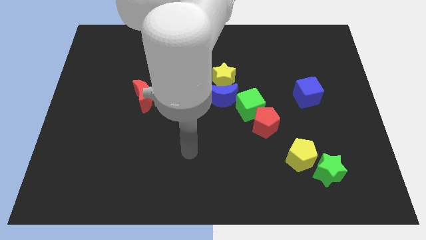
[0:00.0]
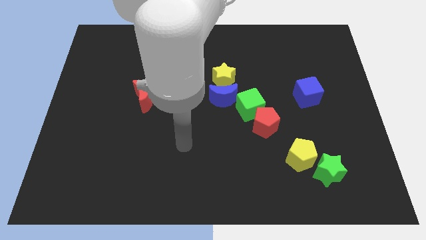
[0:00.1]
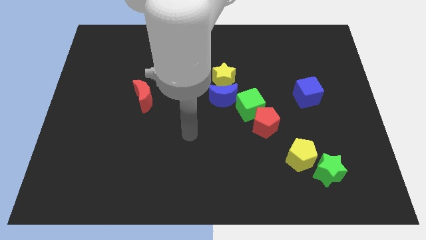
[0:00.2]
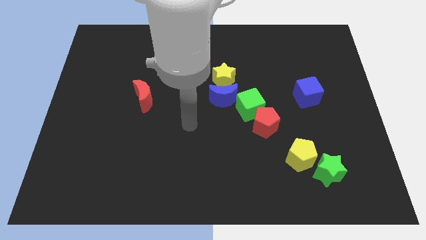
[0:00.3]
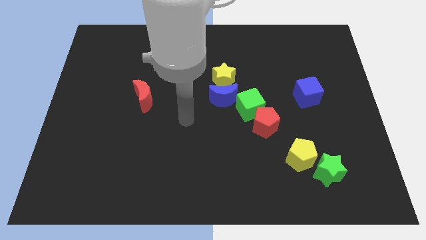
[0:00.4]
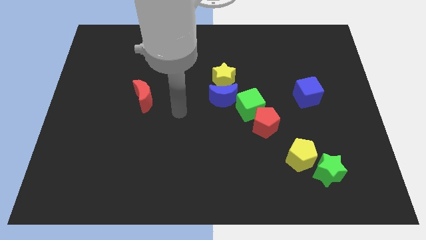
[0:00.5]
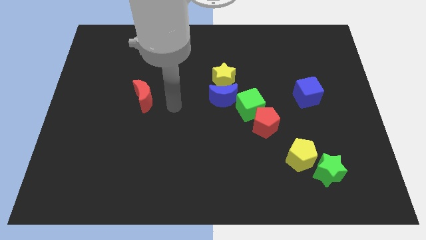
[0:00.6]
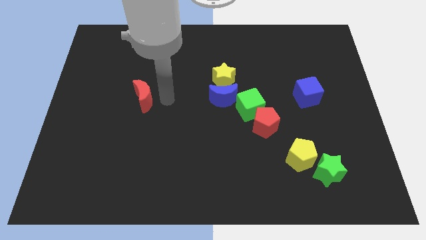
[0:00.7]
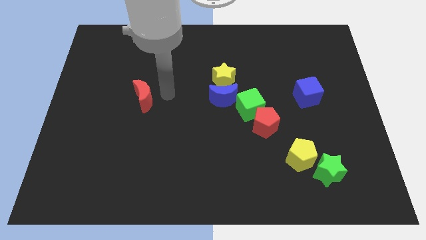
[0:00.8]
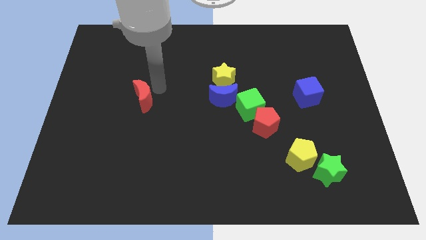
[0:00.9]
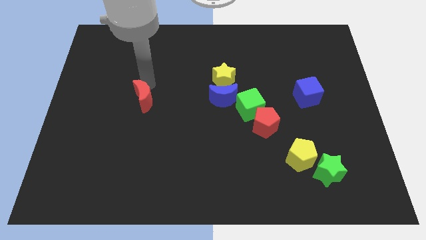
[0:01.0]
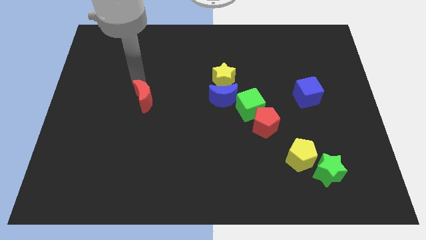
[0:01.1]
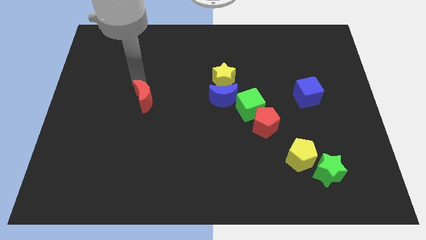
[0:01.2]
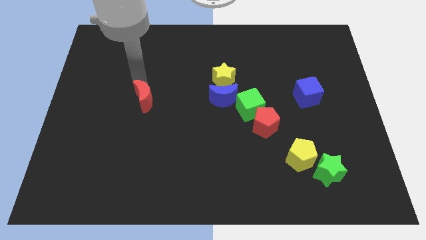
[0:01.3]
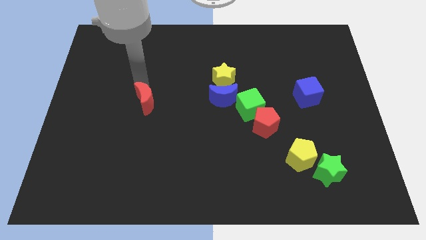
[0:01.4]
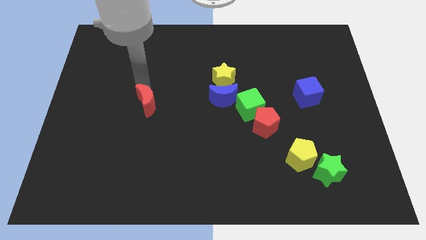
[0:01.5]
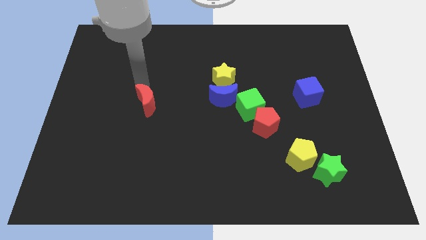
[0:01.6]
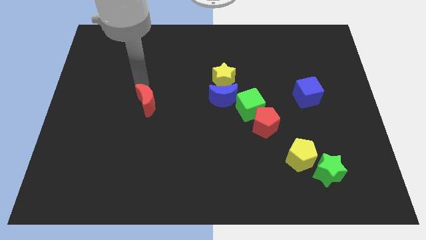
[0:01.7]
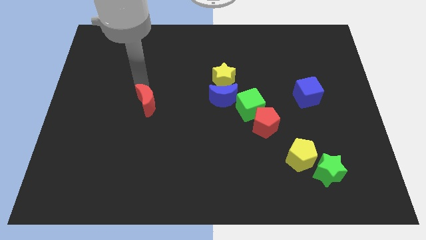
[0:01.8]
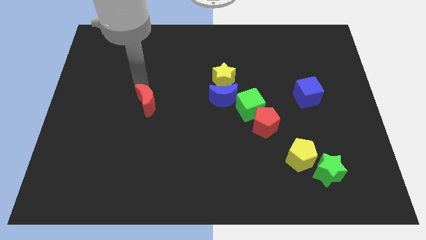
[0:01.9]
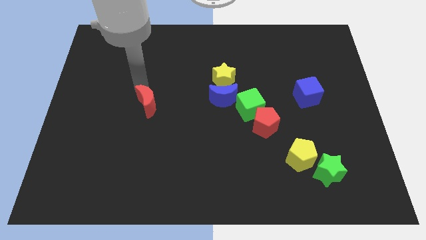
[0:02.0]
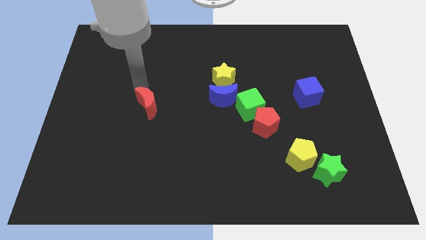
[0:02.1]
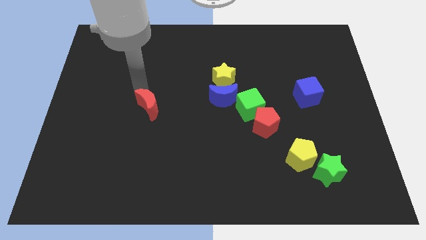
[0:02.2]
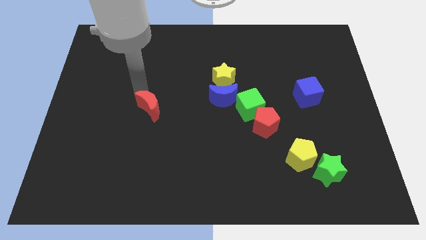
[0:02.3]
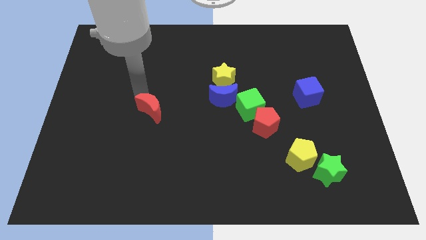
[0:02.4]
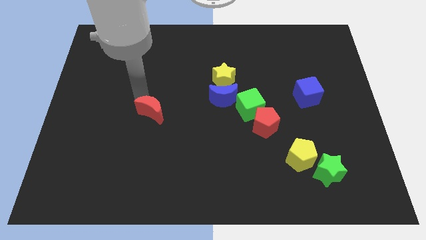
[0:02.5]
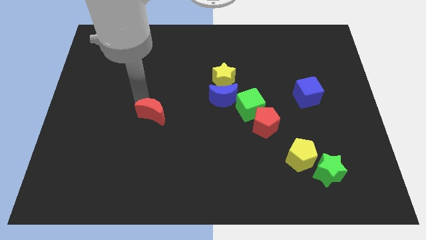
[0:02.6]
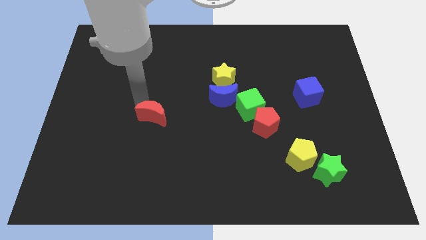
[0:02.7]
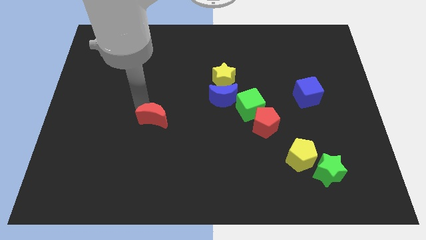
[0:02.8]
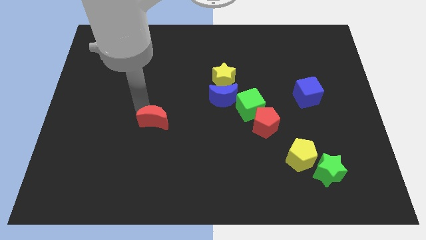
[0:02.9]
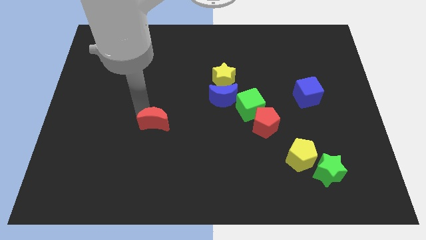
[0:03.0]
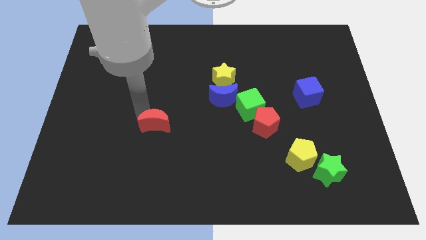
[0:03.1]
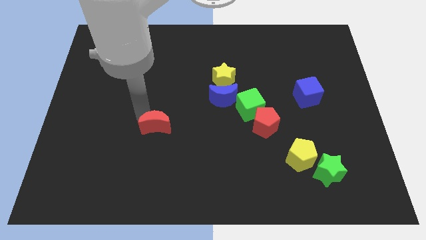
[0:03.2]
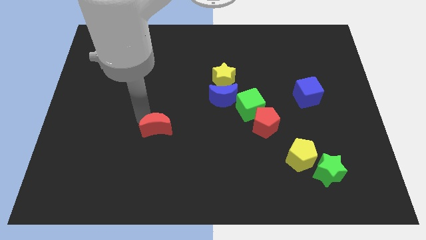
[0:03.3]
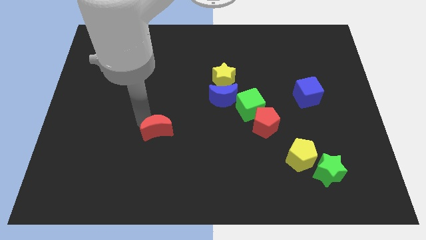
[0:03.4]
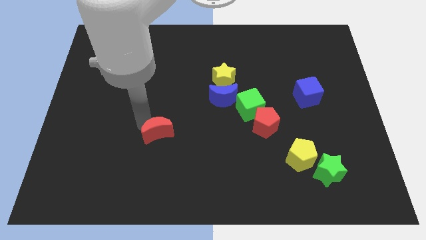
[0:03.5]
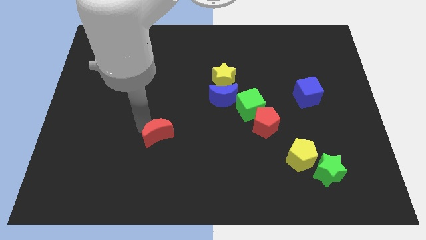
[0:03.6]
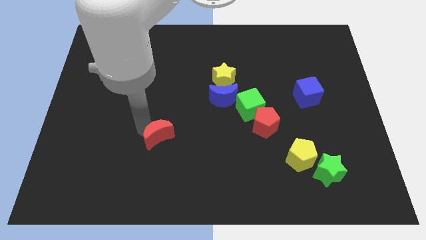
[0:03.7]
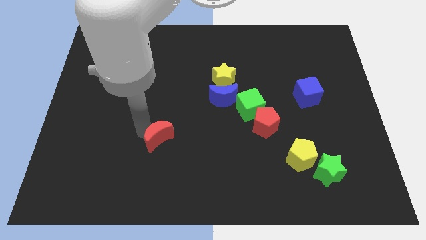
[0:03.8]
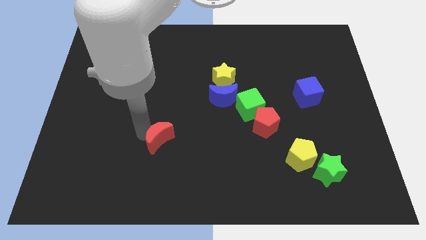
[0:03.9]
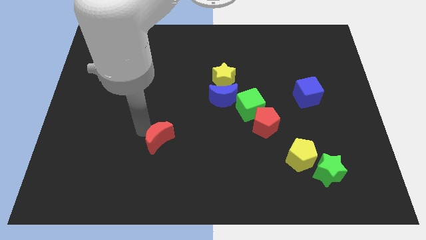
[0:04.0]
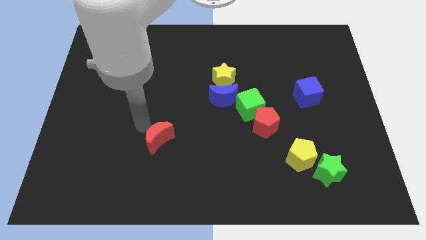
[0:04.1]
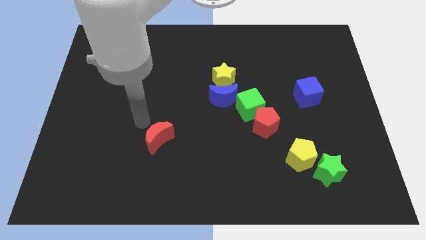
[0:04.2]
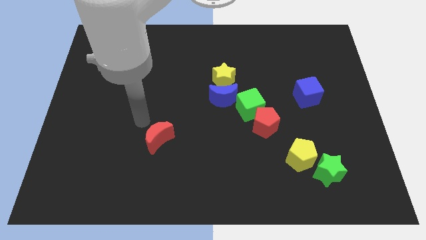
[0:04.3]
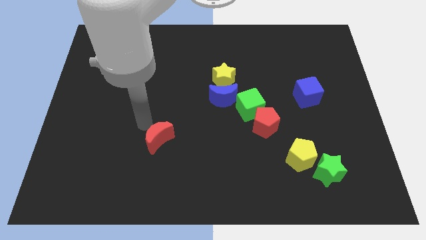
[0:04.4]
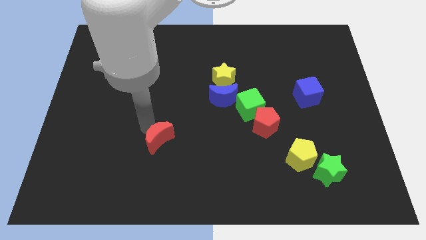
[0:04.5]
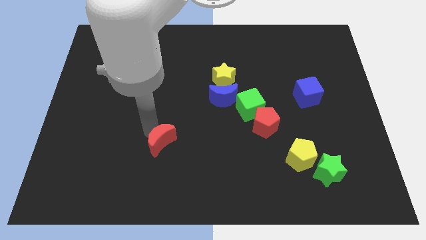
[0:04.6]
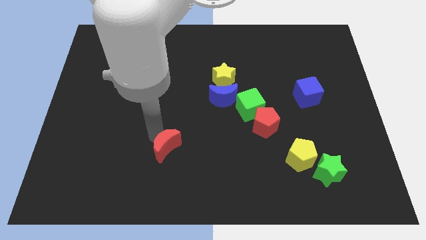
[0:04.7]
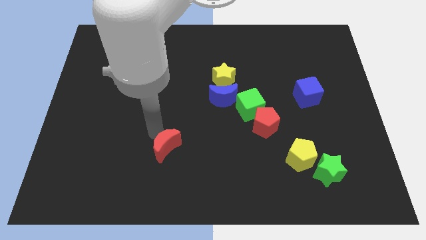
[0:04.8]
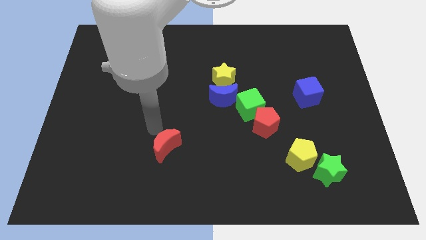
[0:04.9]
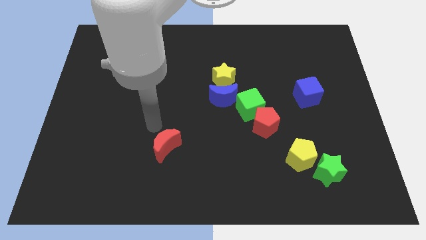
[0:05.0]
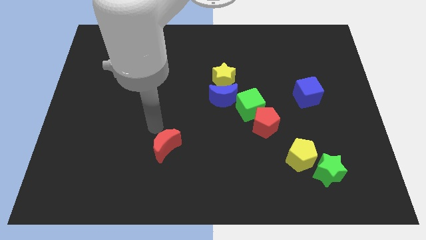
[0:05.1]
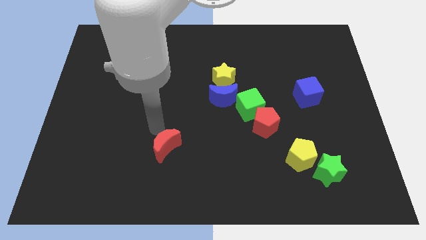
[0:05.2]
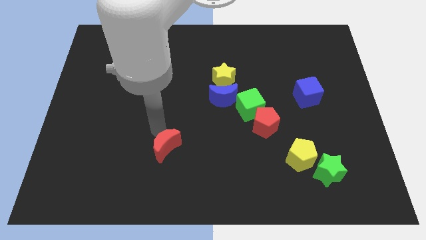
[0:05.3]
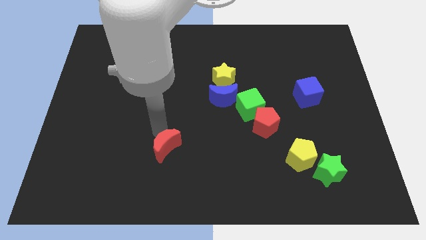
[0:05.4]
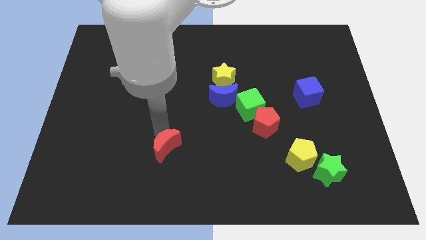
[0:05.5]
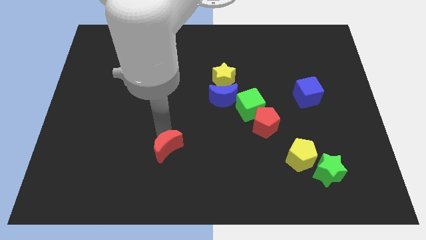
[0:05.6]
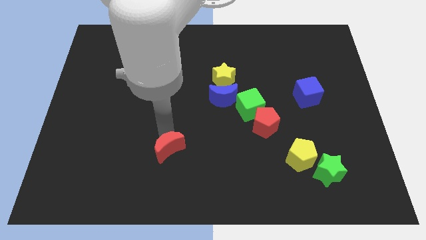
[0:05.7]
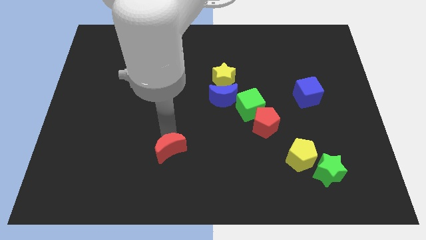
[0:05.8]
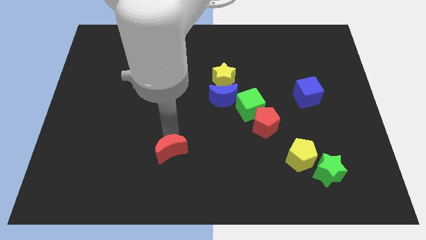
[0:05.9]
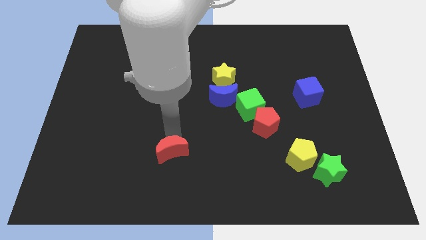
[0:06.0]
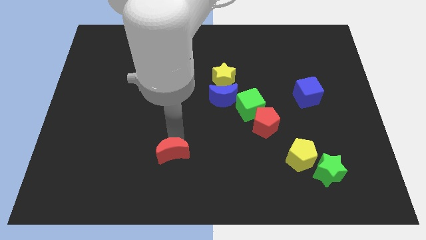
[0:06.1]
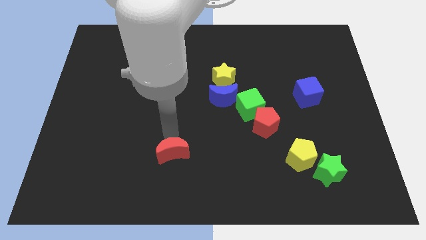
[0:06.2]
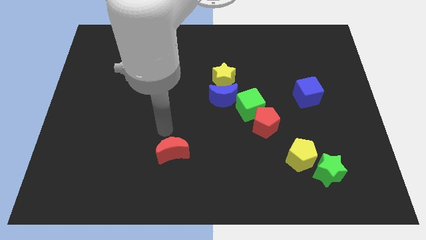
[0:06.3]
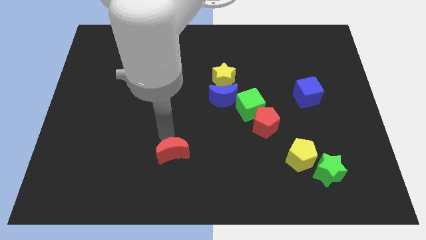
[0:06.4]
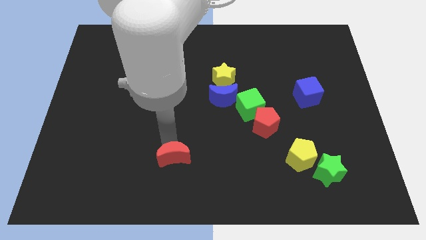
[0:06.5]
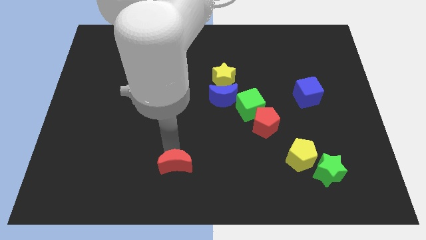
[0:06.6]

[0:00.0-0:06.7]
slide the red moon to the bottom
